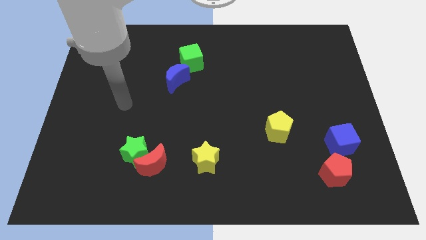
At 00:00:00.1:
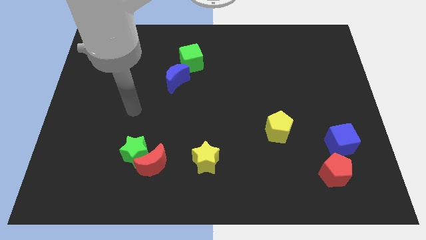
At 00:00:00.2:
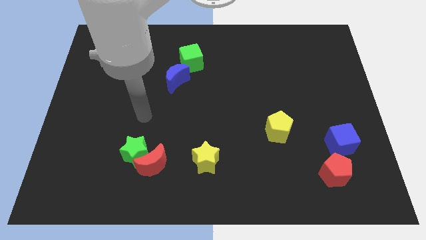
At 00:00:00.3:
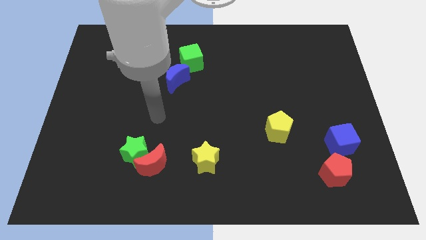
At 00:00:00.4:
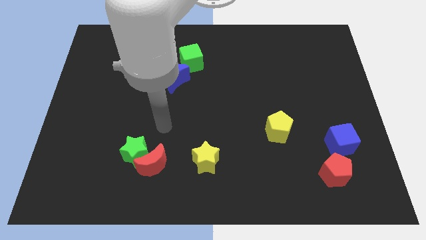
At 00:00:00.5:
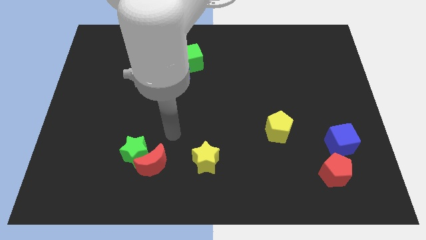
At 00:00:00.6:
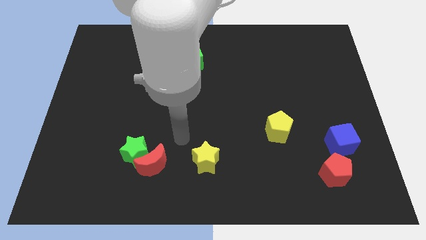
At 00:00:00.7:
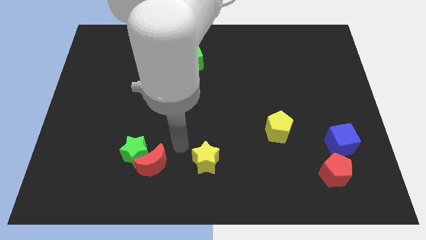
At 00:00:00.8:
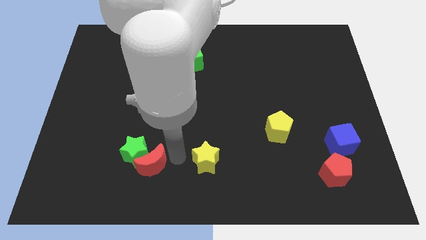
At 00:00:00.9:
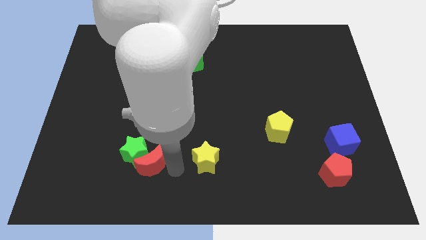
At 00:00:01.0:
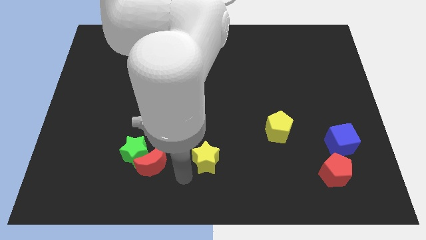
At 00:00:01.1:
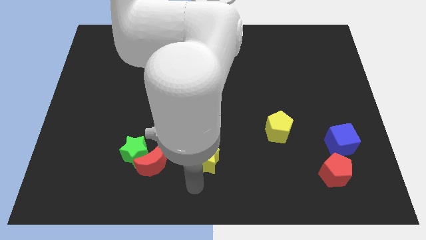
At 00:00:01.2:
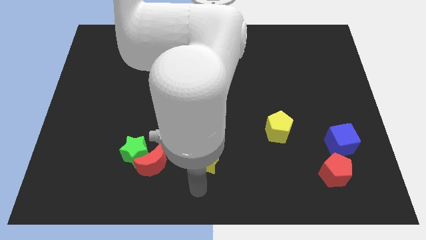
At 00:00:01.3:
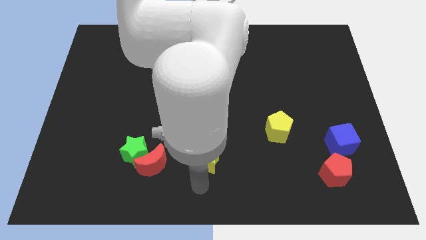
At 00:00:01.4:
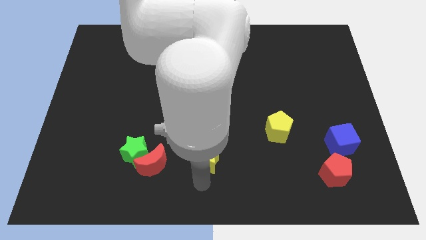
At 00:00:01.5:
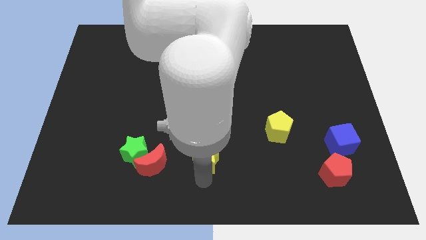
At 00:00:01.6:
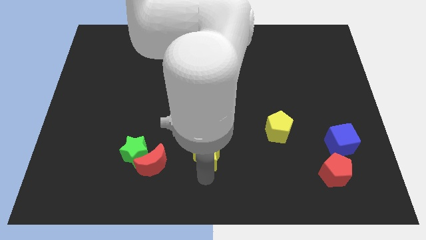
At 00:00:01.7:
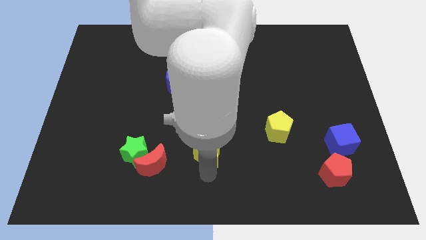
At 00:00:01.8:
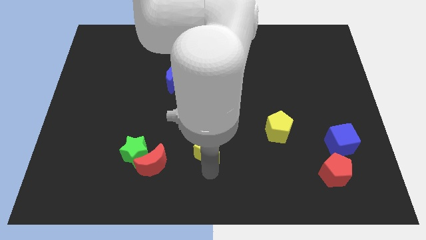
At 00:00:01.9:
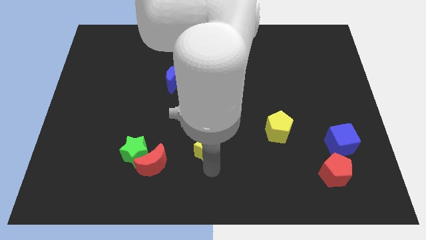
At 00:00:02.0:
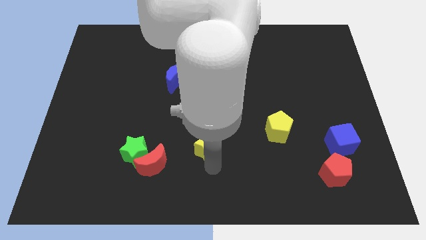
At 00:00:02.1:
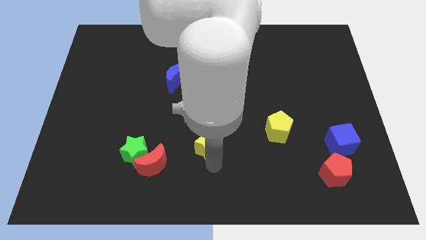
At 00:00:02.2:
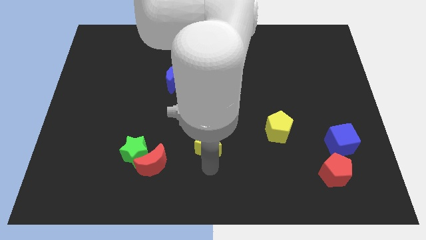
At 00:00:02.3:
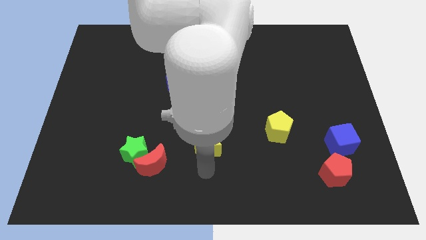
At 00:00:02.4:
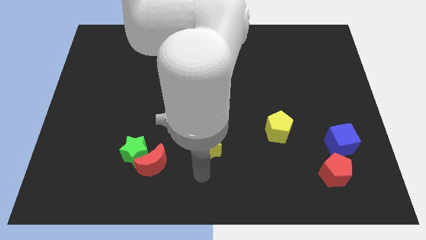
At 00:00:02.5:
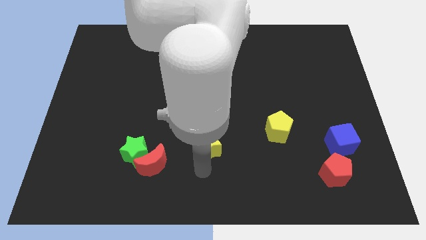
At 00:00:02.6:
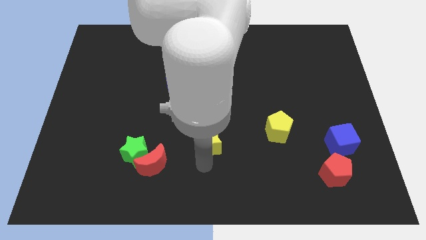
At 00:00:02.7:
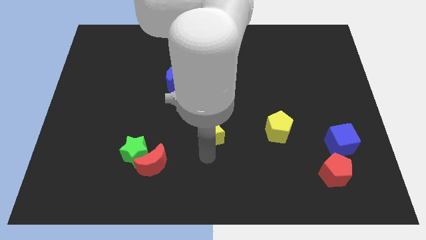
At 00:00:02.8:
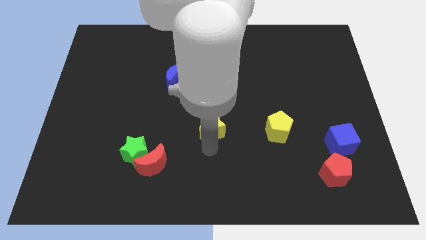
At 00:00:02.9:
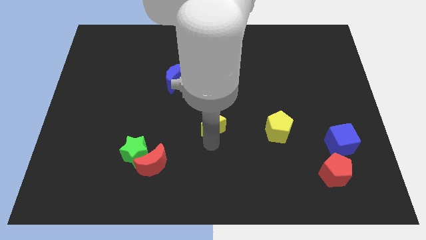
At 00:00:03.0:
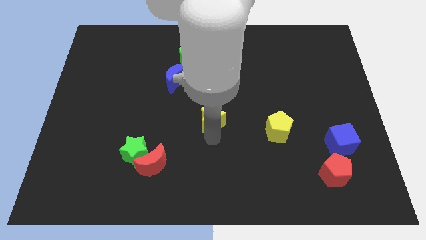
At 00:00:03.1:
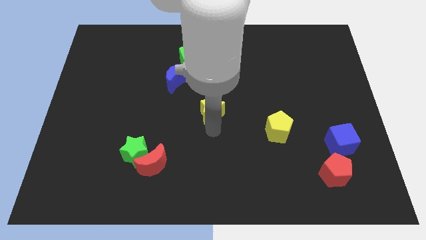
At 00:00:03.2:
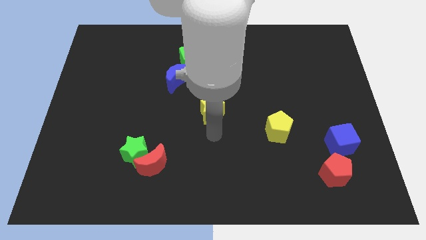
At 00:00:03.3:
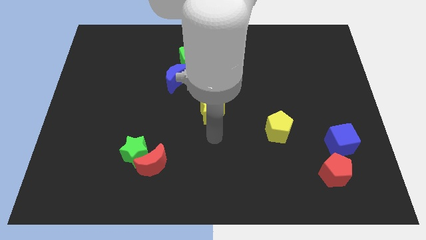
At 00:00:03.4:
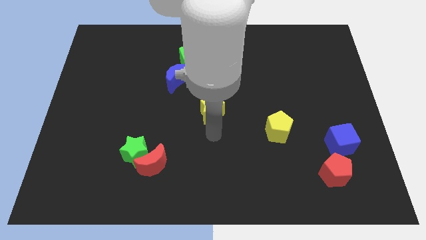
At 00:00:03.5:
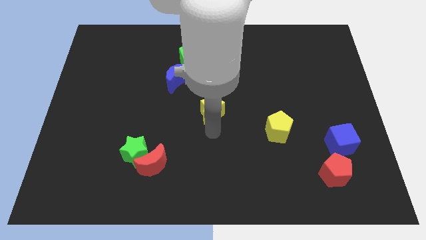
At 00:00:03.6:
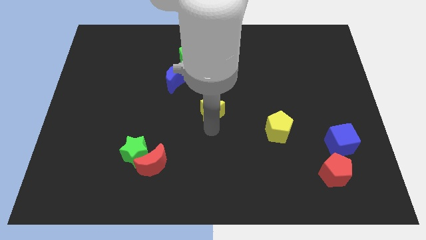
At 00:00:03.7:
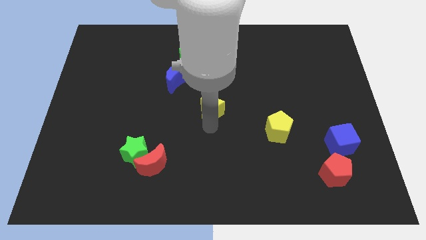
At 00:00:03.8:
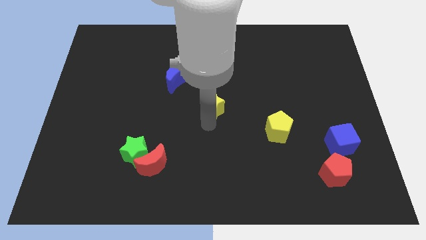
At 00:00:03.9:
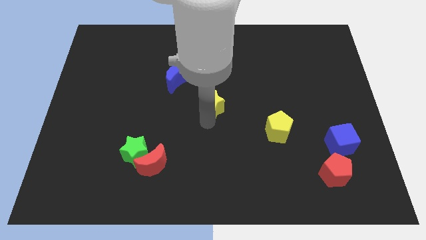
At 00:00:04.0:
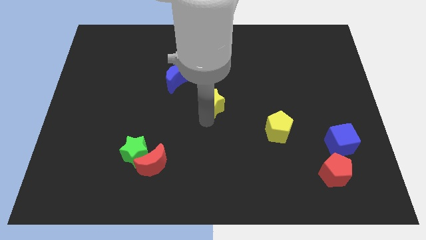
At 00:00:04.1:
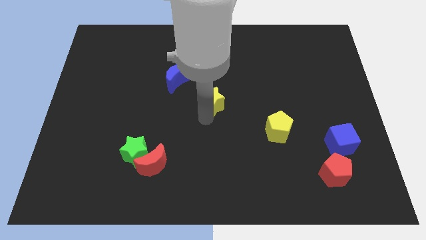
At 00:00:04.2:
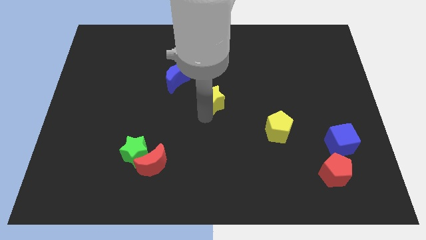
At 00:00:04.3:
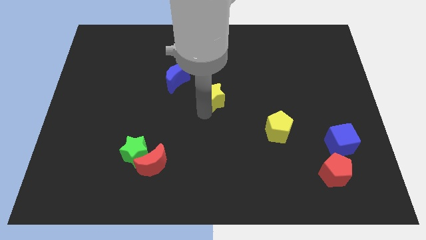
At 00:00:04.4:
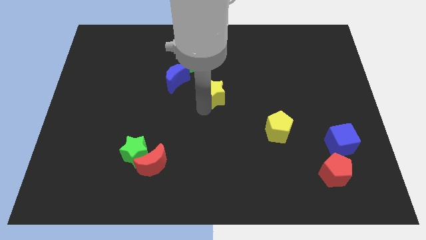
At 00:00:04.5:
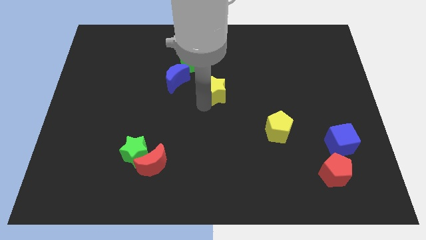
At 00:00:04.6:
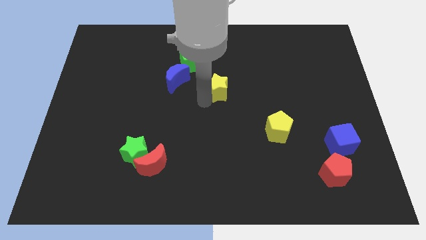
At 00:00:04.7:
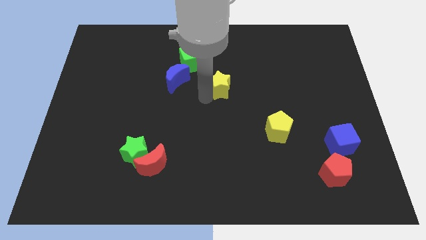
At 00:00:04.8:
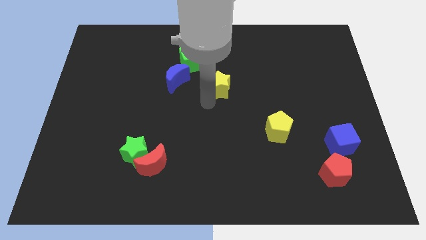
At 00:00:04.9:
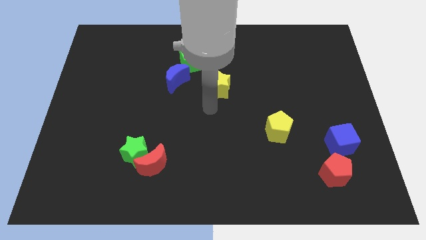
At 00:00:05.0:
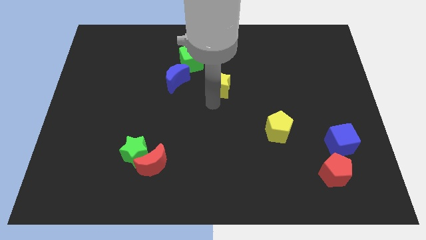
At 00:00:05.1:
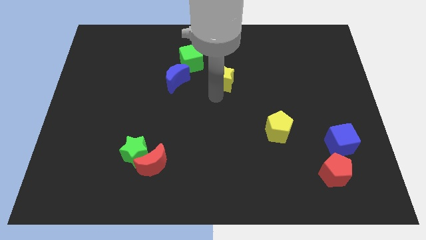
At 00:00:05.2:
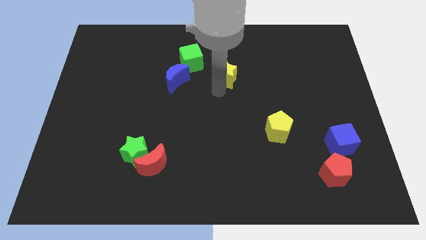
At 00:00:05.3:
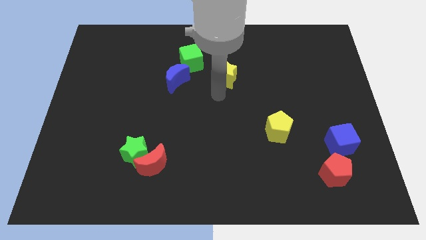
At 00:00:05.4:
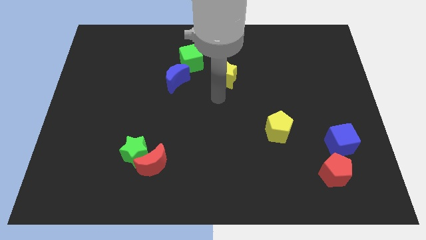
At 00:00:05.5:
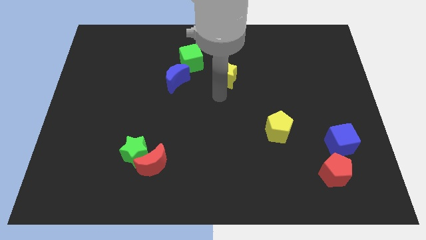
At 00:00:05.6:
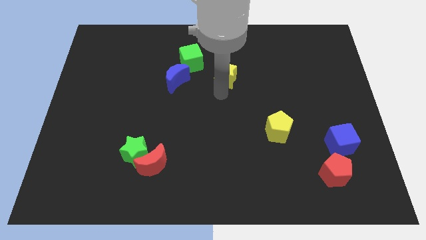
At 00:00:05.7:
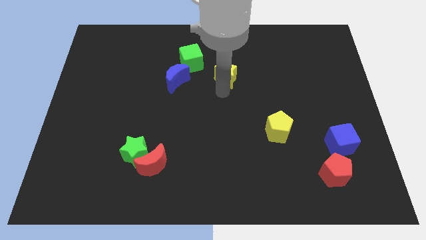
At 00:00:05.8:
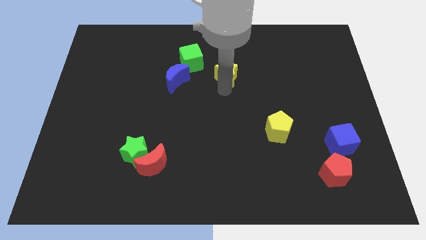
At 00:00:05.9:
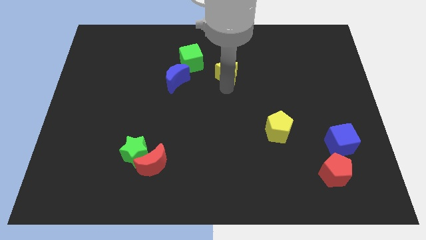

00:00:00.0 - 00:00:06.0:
move the yellow star to the right side of the green cube
